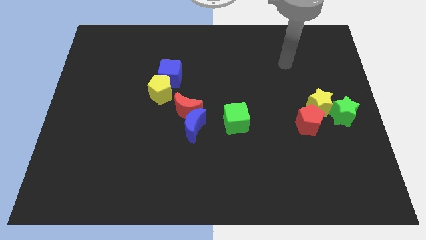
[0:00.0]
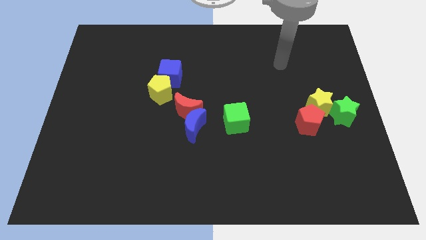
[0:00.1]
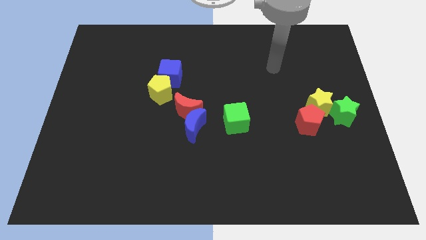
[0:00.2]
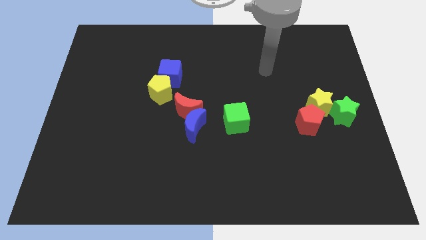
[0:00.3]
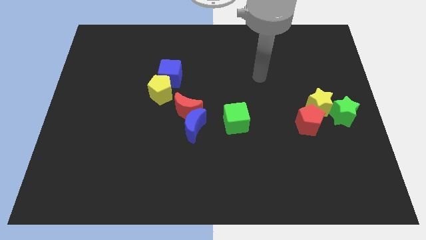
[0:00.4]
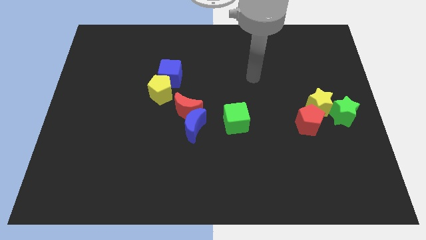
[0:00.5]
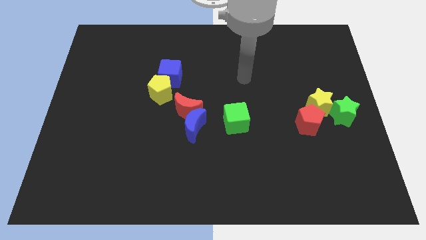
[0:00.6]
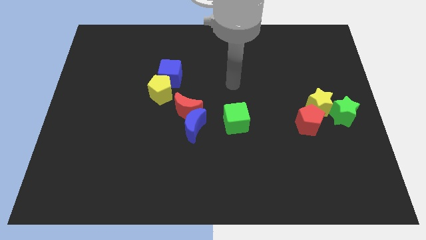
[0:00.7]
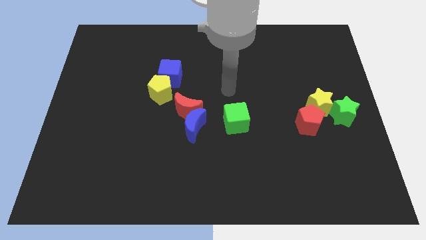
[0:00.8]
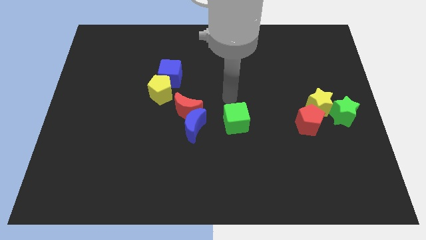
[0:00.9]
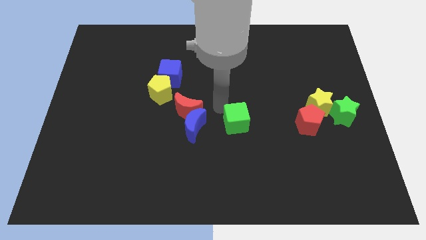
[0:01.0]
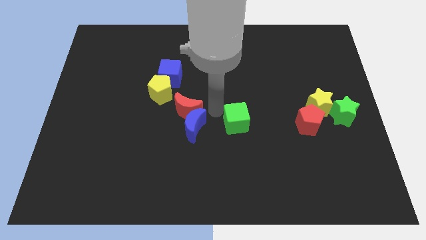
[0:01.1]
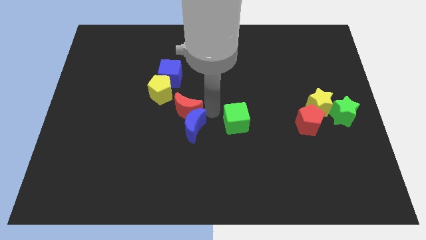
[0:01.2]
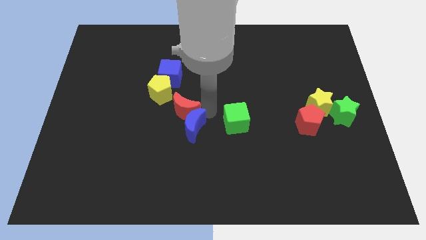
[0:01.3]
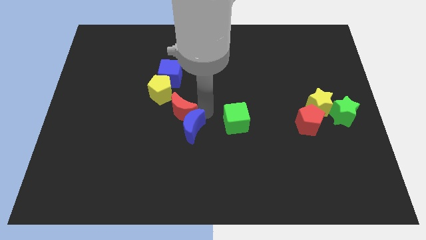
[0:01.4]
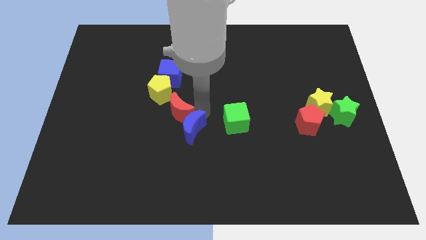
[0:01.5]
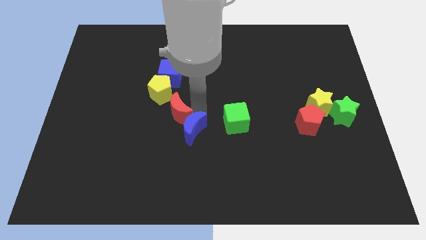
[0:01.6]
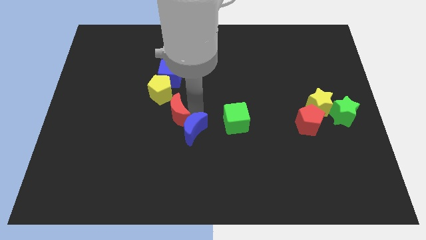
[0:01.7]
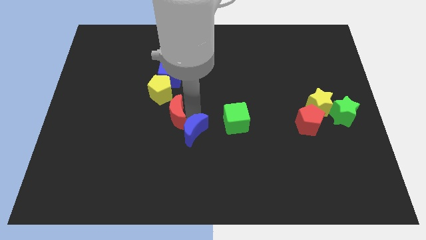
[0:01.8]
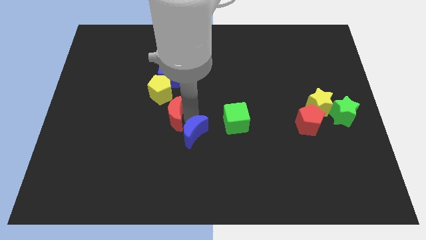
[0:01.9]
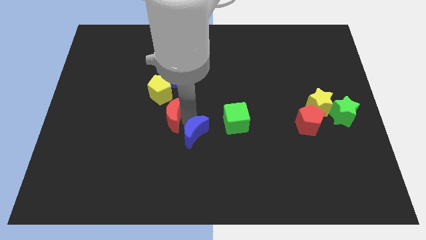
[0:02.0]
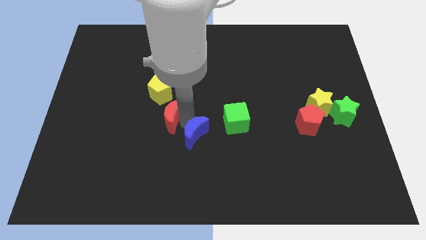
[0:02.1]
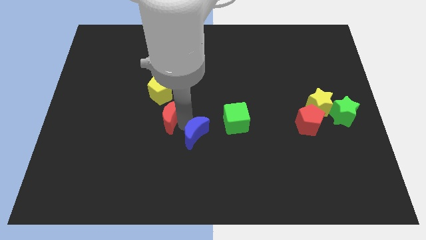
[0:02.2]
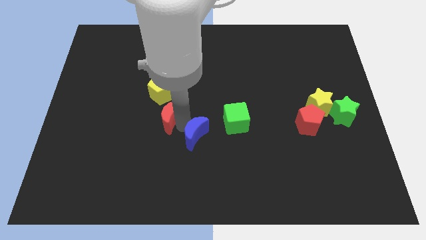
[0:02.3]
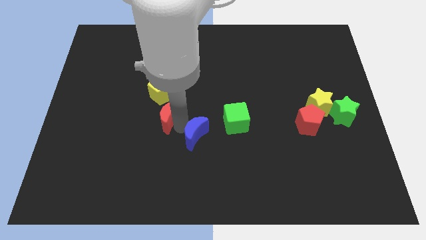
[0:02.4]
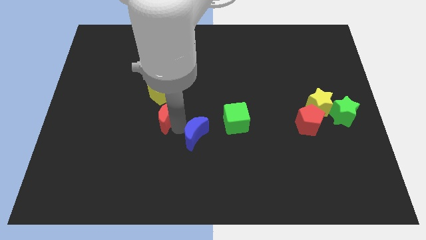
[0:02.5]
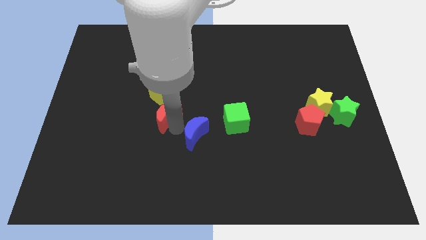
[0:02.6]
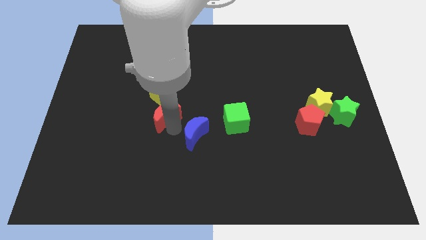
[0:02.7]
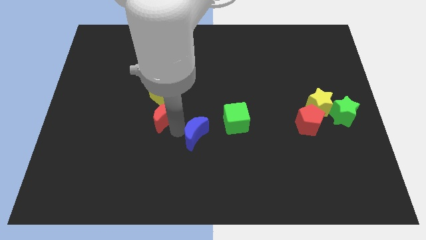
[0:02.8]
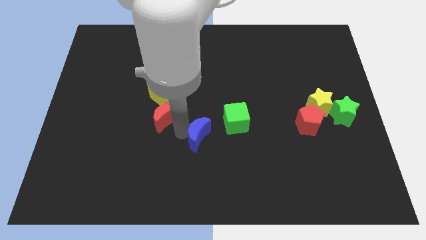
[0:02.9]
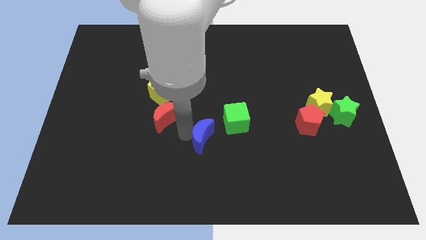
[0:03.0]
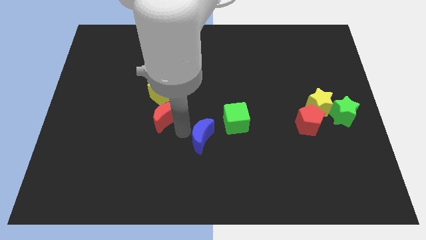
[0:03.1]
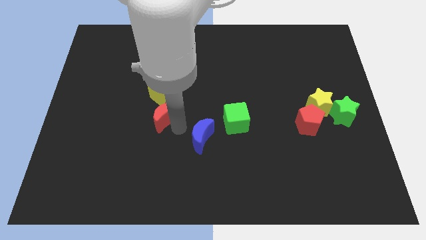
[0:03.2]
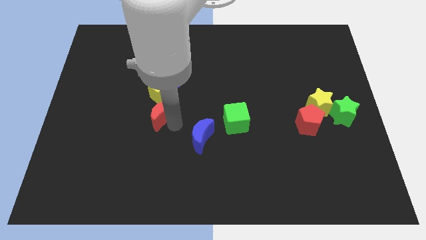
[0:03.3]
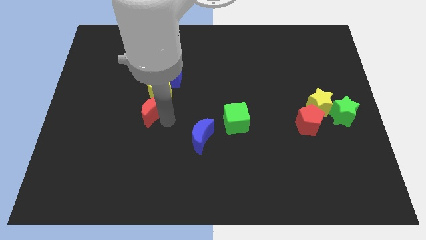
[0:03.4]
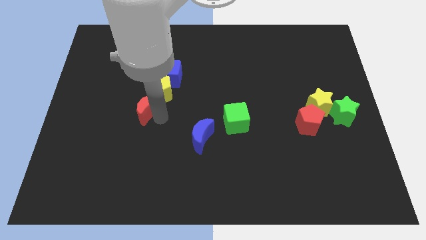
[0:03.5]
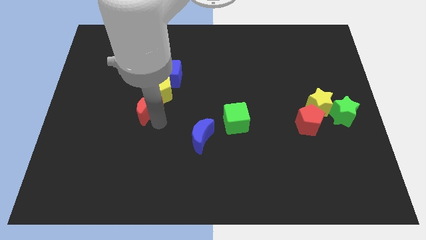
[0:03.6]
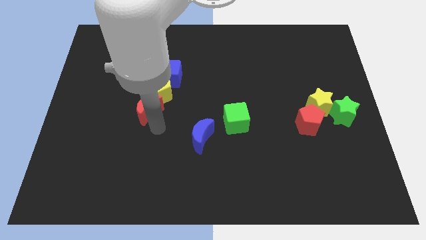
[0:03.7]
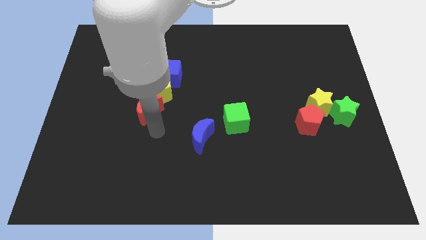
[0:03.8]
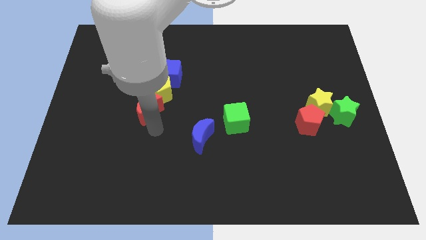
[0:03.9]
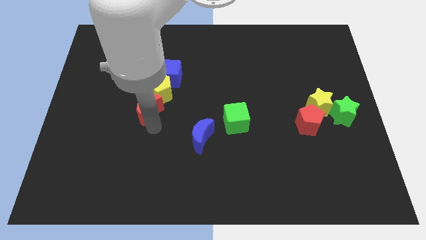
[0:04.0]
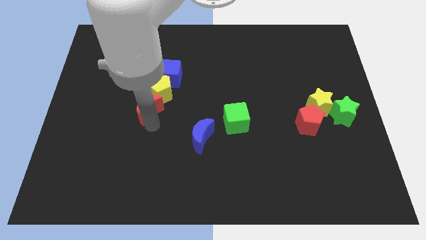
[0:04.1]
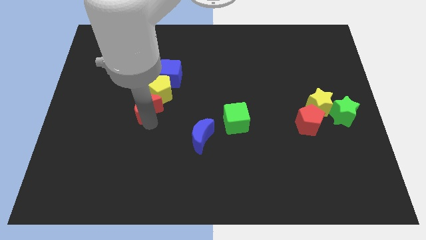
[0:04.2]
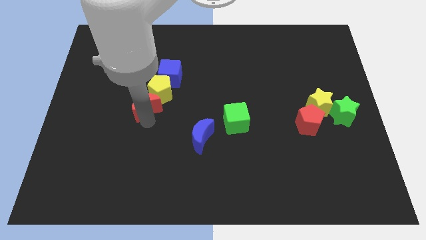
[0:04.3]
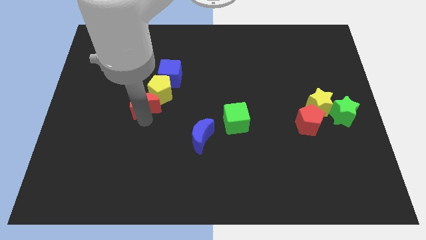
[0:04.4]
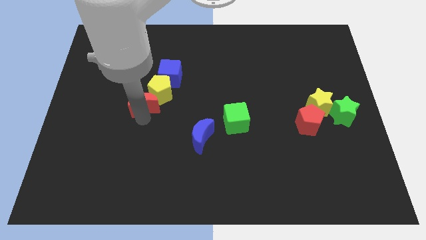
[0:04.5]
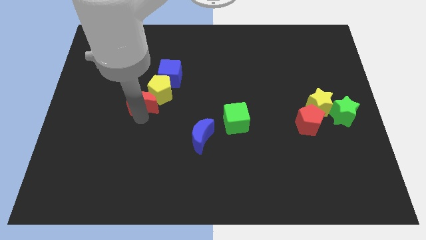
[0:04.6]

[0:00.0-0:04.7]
slightly push the red moon diagonally upwards and to the left

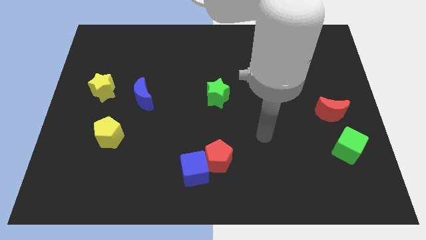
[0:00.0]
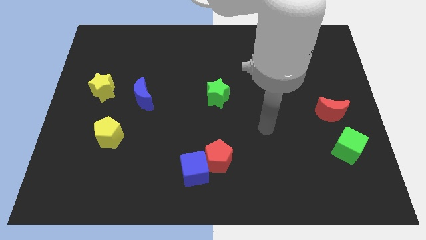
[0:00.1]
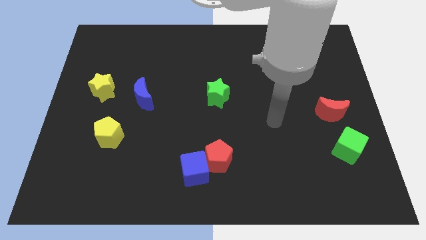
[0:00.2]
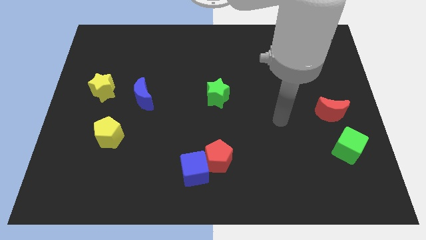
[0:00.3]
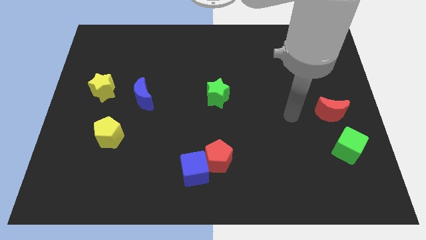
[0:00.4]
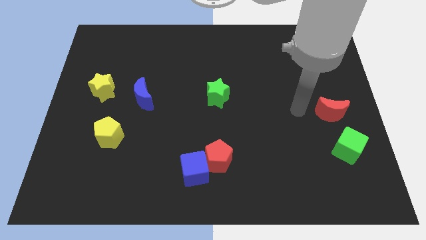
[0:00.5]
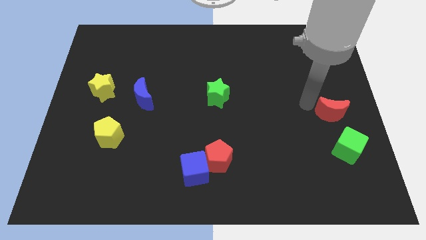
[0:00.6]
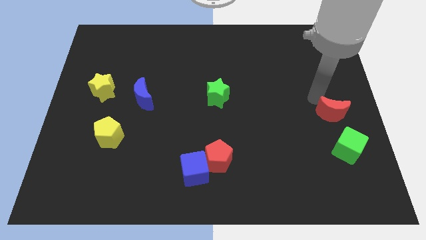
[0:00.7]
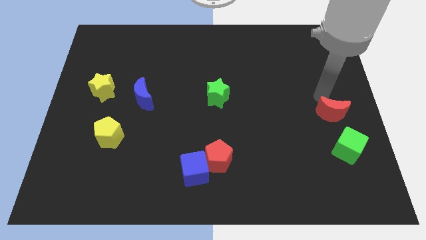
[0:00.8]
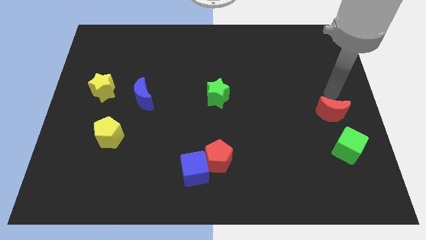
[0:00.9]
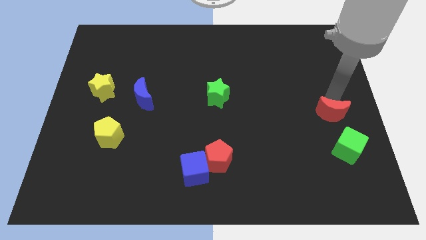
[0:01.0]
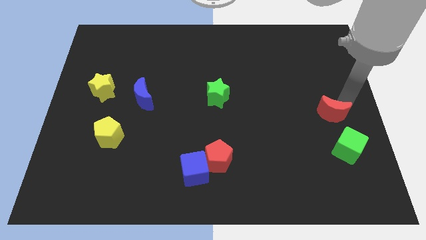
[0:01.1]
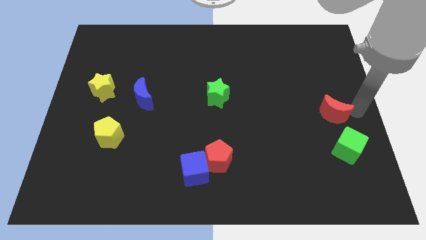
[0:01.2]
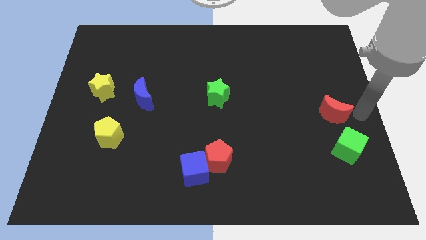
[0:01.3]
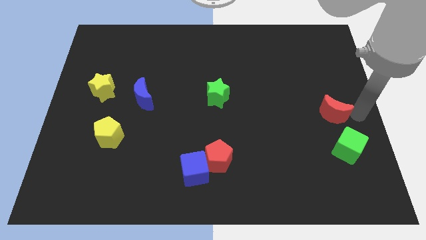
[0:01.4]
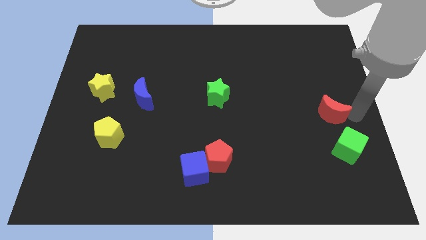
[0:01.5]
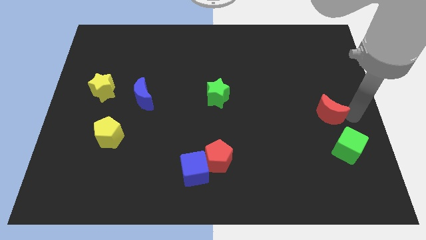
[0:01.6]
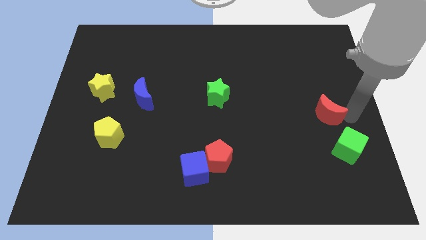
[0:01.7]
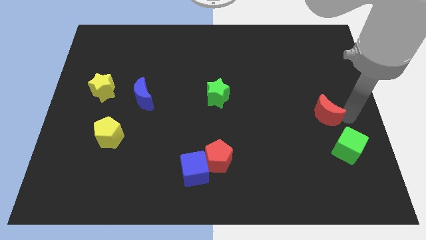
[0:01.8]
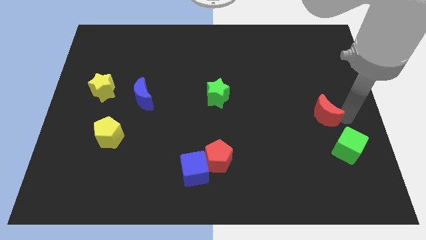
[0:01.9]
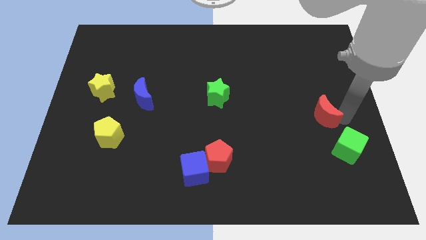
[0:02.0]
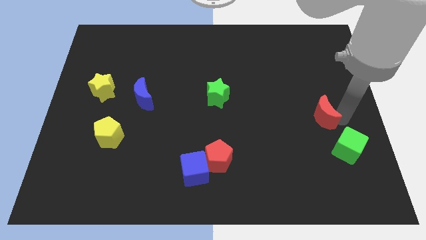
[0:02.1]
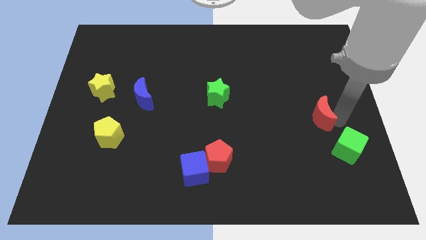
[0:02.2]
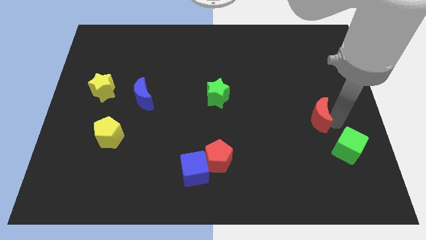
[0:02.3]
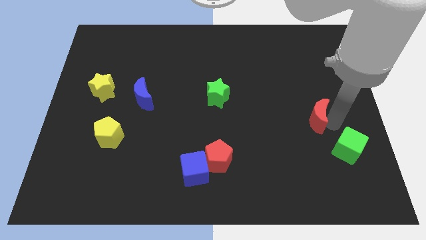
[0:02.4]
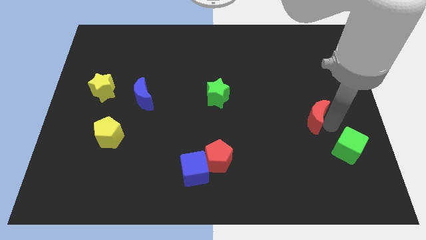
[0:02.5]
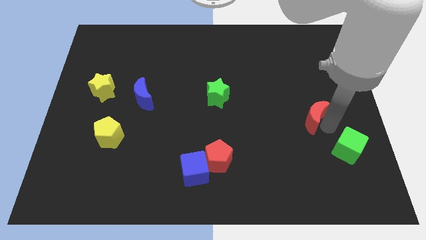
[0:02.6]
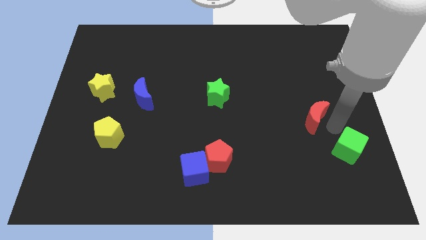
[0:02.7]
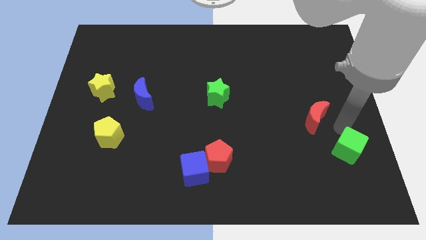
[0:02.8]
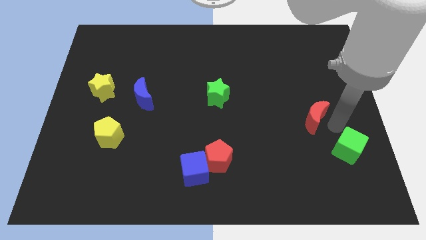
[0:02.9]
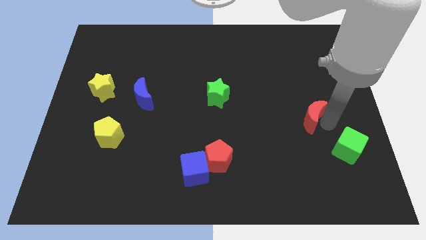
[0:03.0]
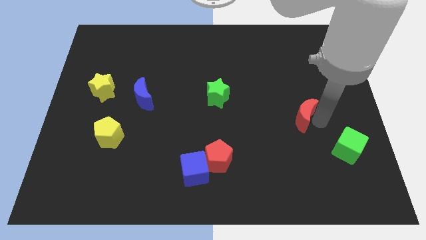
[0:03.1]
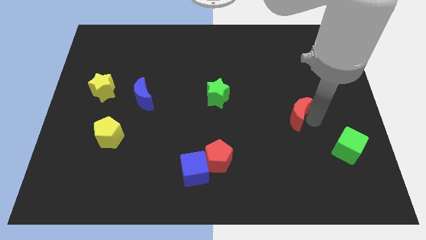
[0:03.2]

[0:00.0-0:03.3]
push the red moon somewhat left
